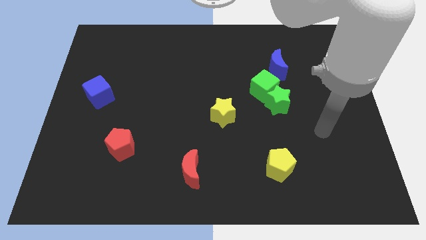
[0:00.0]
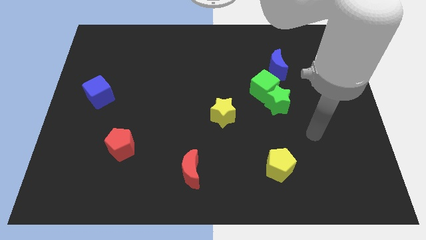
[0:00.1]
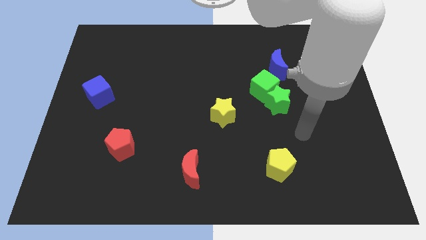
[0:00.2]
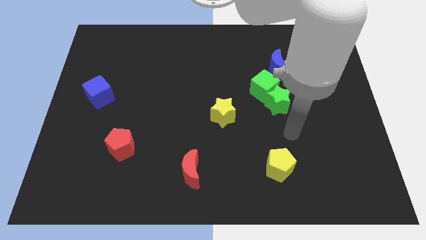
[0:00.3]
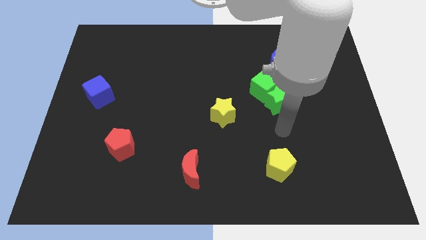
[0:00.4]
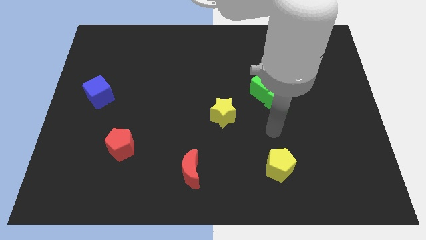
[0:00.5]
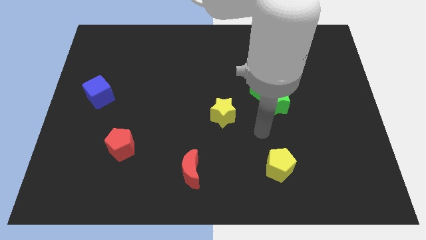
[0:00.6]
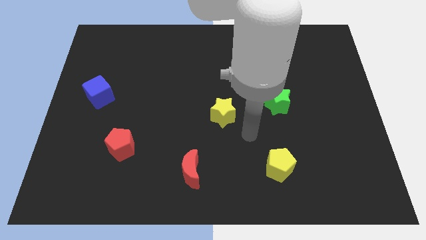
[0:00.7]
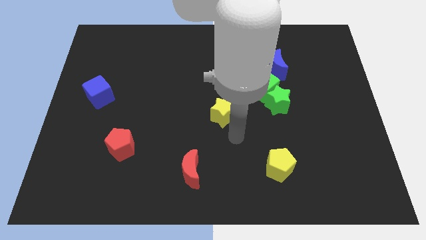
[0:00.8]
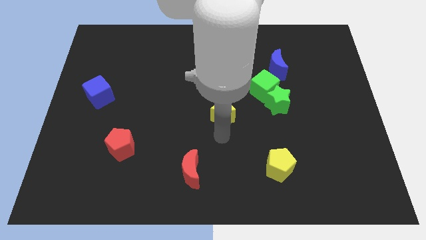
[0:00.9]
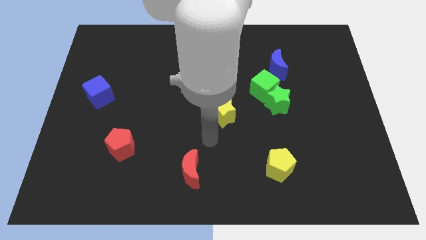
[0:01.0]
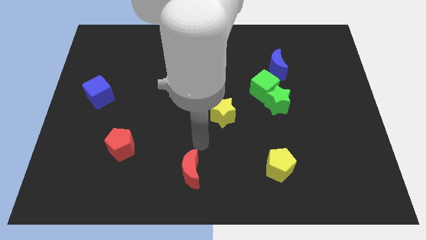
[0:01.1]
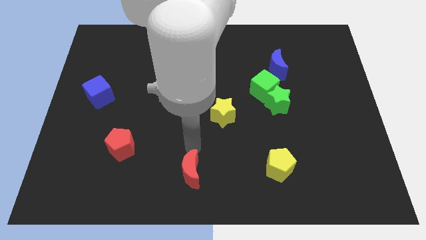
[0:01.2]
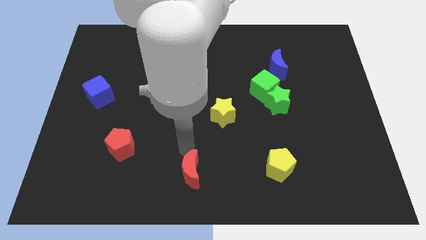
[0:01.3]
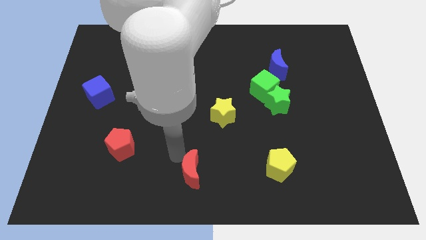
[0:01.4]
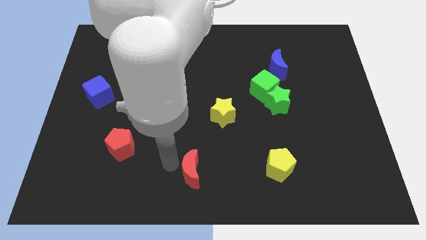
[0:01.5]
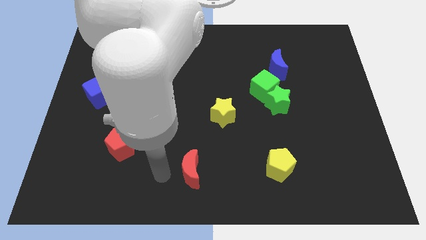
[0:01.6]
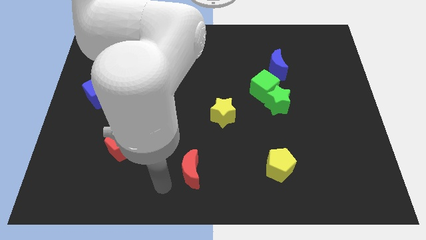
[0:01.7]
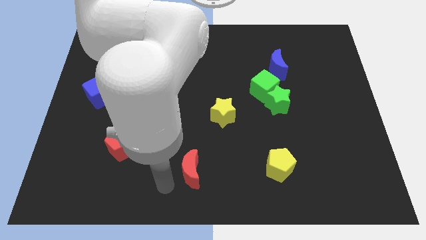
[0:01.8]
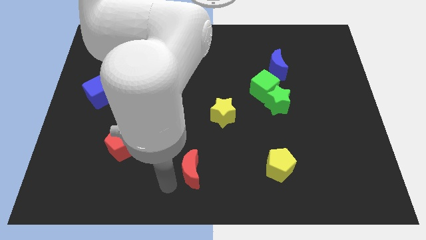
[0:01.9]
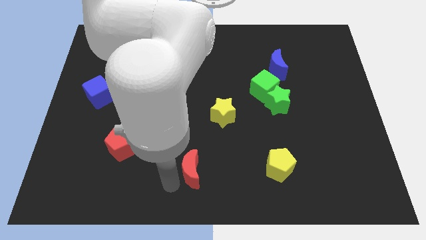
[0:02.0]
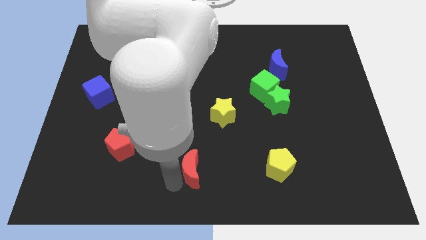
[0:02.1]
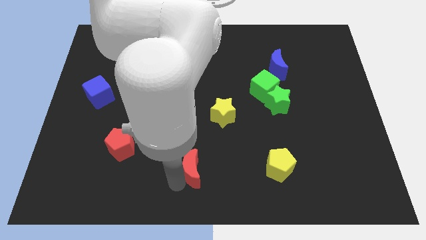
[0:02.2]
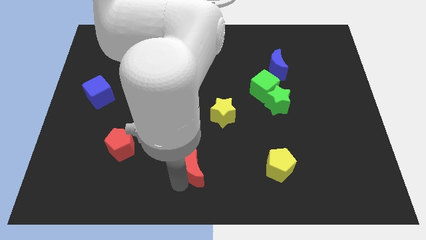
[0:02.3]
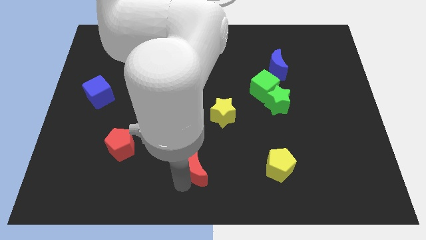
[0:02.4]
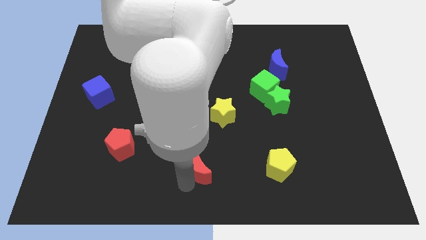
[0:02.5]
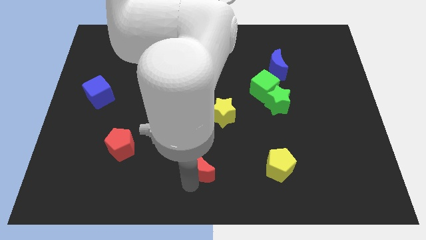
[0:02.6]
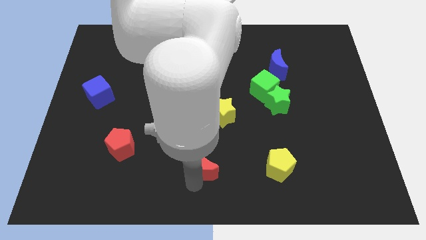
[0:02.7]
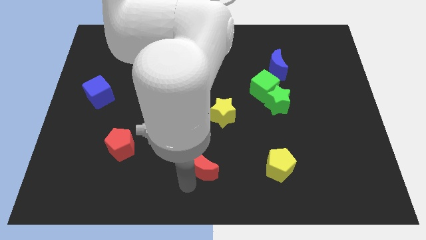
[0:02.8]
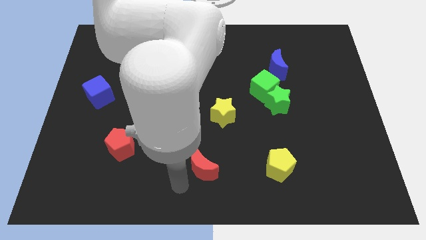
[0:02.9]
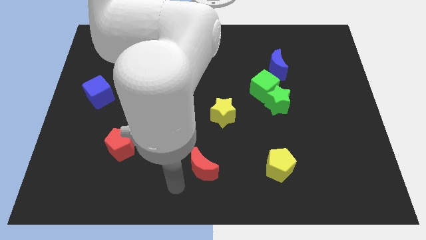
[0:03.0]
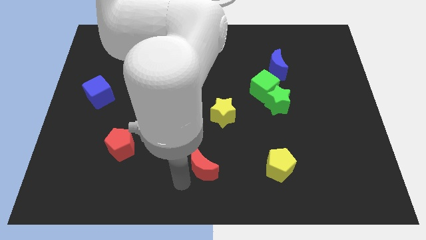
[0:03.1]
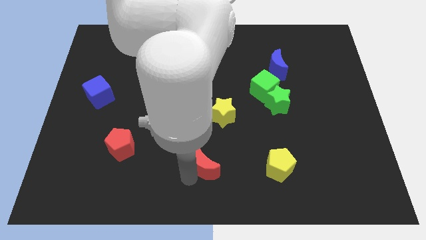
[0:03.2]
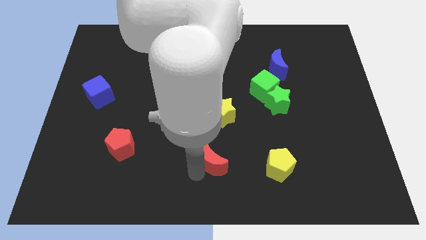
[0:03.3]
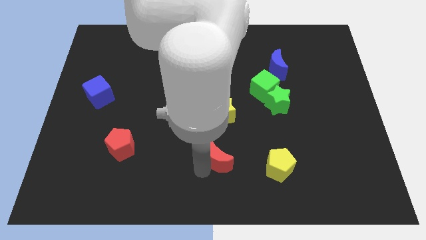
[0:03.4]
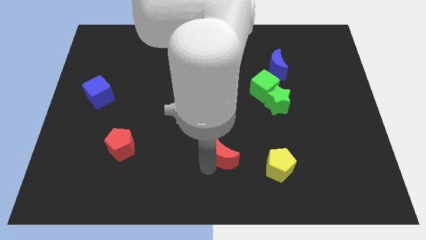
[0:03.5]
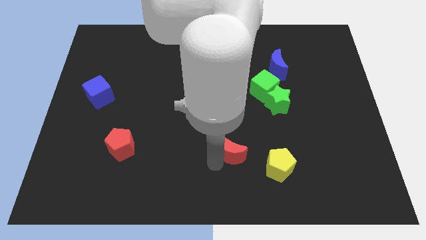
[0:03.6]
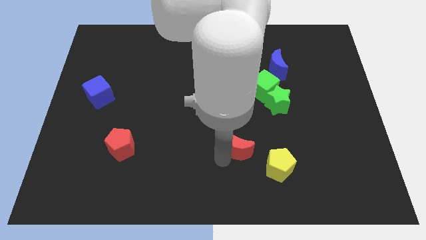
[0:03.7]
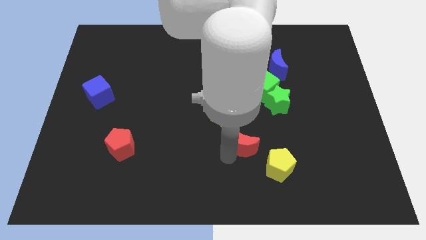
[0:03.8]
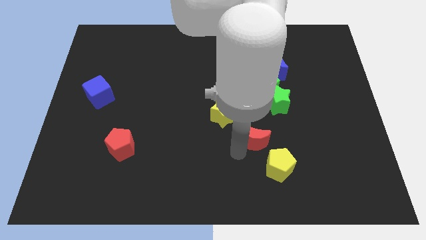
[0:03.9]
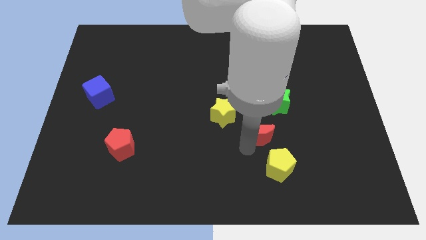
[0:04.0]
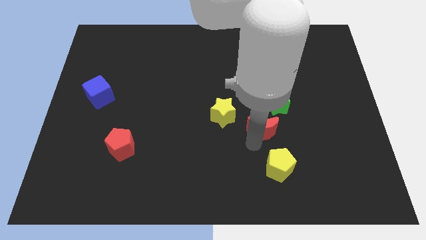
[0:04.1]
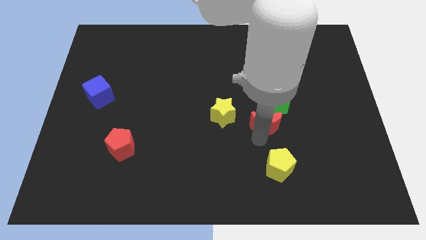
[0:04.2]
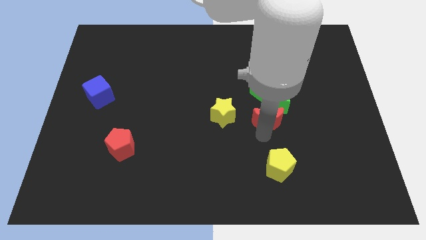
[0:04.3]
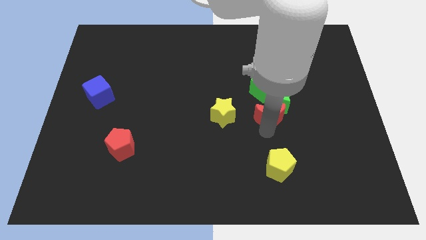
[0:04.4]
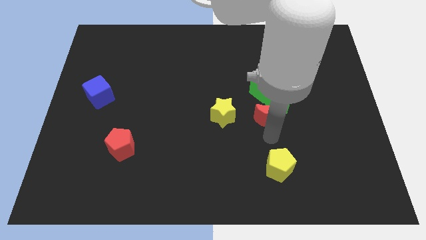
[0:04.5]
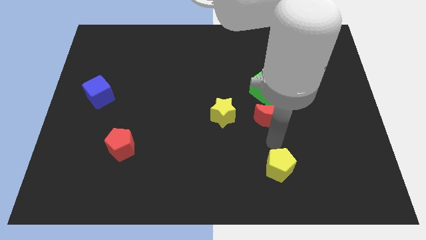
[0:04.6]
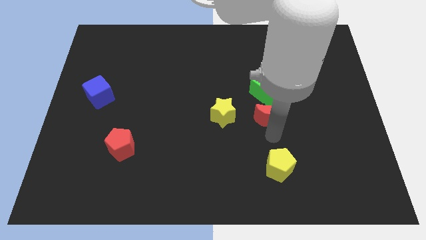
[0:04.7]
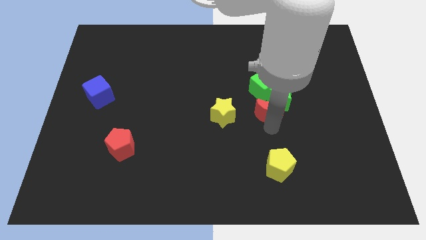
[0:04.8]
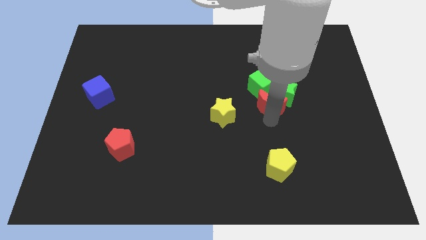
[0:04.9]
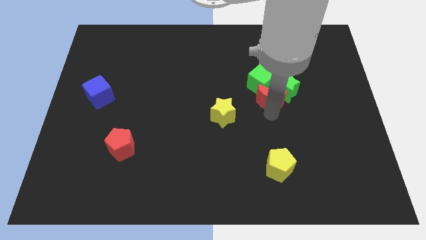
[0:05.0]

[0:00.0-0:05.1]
put the red moon towards the green cube

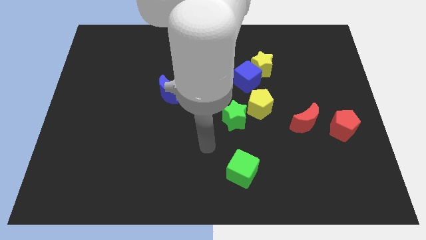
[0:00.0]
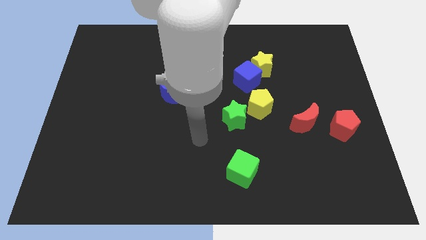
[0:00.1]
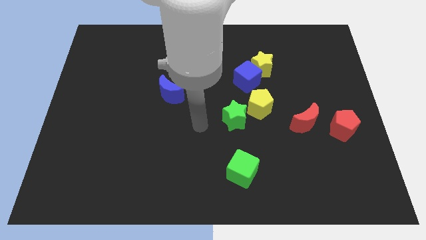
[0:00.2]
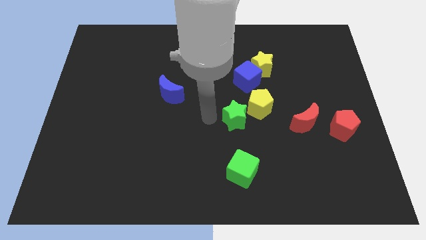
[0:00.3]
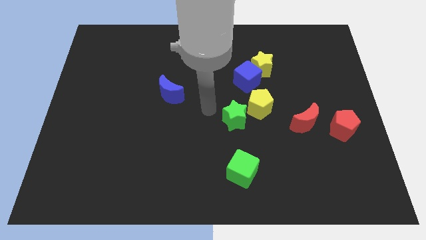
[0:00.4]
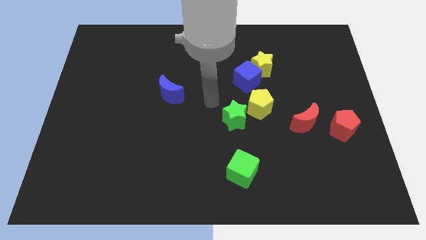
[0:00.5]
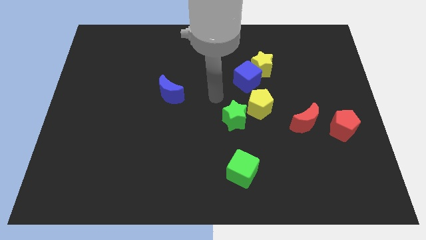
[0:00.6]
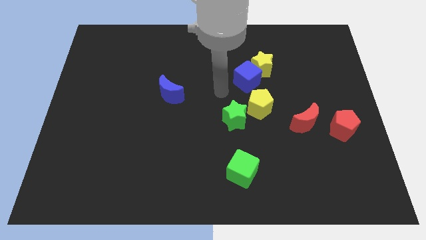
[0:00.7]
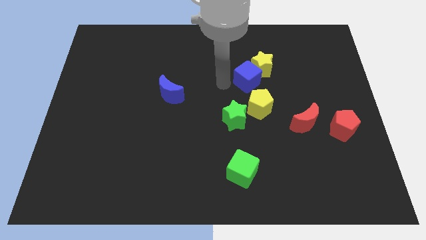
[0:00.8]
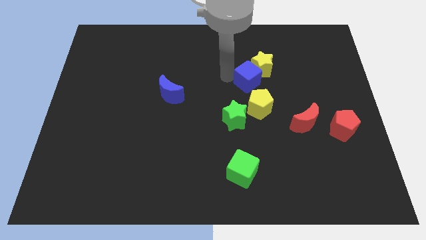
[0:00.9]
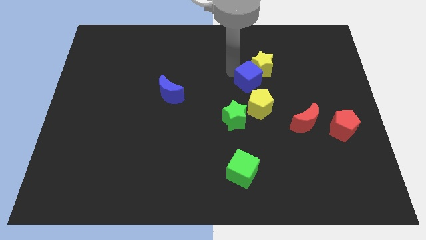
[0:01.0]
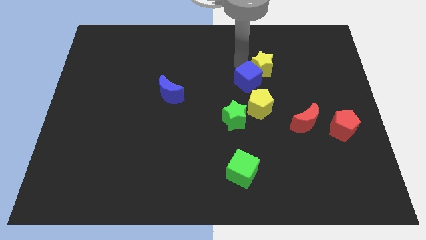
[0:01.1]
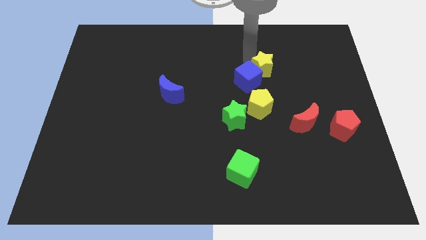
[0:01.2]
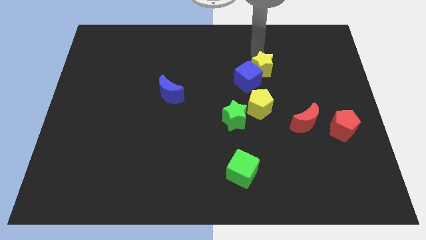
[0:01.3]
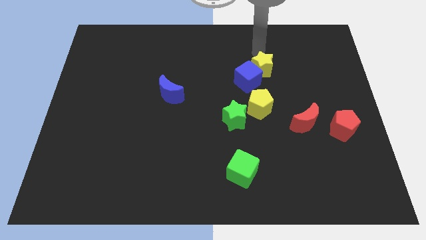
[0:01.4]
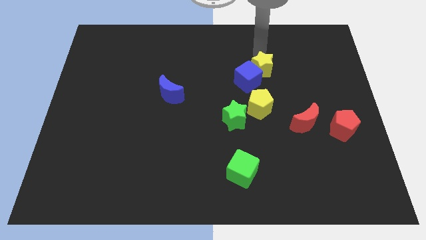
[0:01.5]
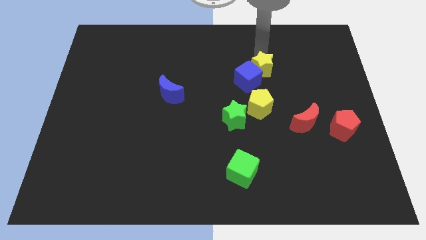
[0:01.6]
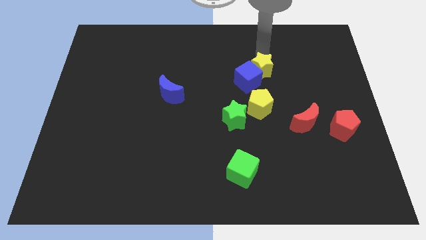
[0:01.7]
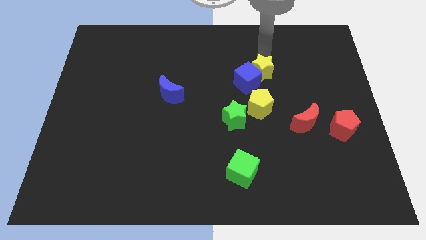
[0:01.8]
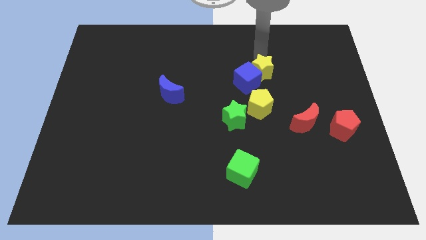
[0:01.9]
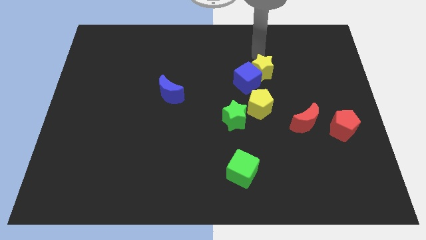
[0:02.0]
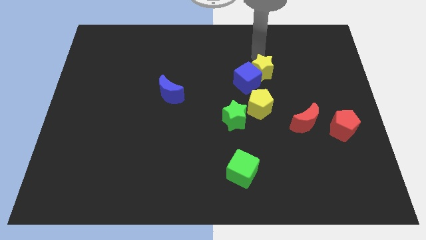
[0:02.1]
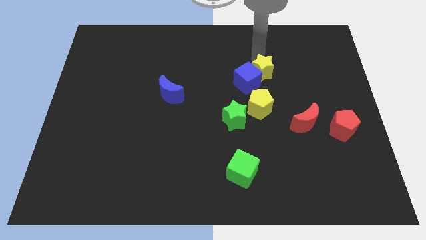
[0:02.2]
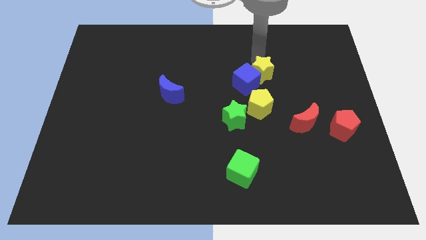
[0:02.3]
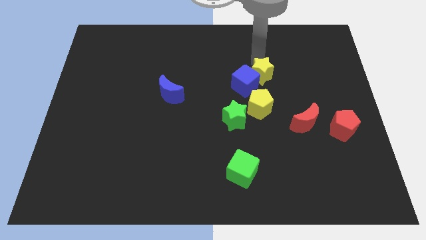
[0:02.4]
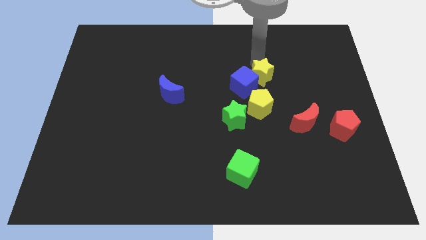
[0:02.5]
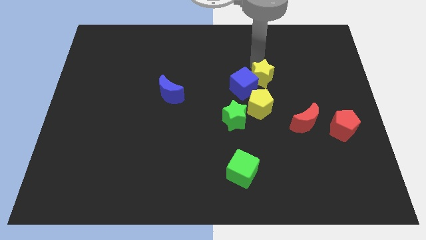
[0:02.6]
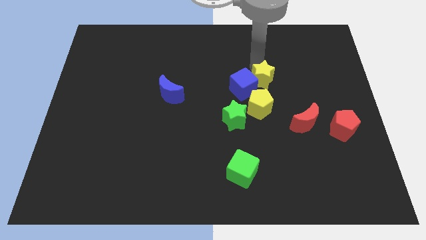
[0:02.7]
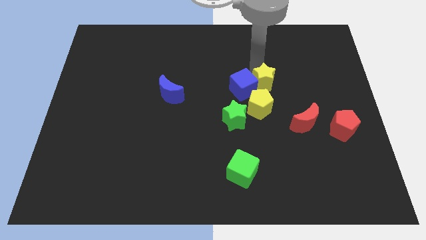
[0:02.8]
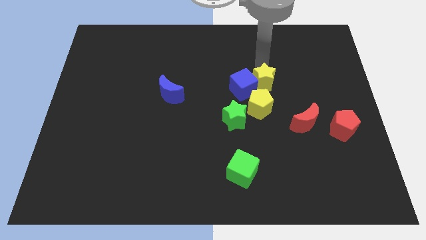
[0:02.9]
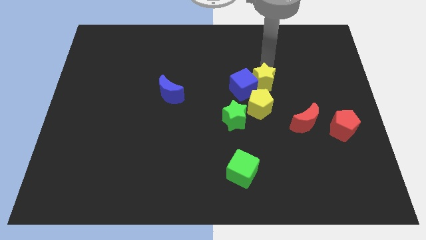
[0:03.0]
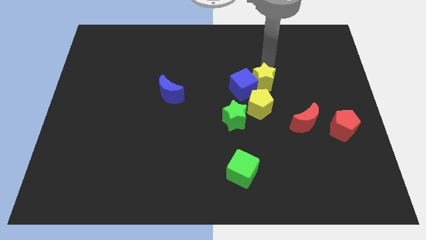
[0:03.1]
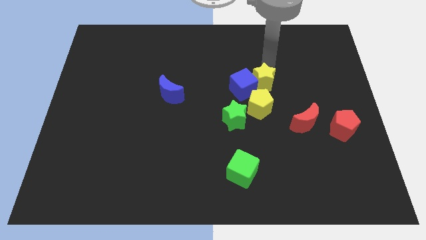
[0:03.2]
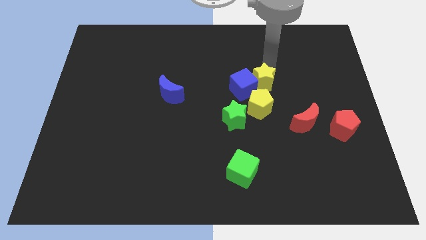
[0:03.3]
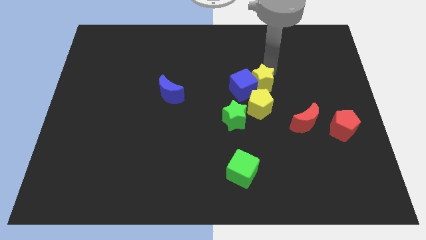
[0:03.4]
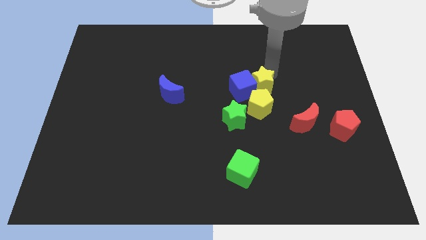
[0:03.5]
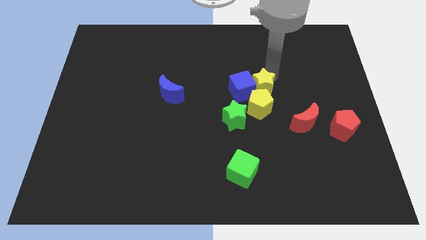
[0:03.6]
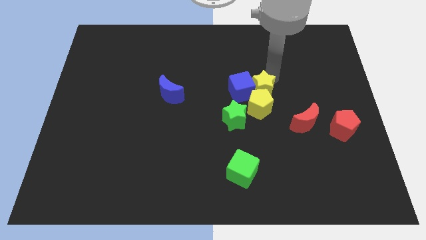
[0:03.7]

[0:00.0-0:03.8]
push the yellow star next to the yellow pentagon
